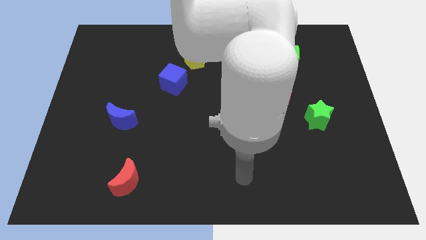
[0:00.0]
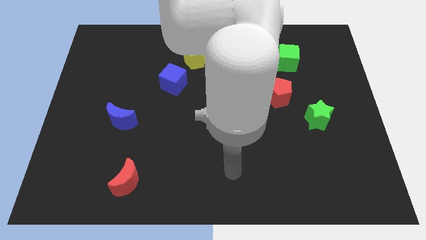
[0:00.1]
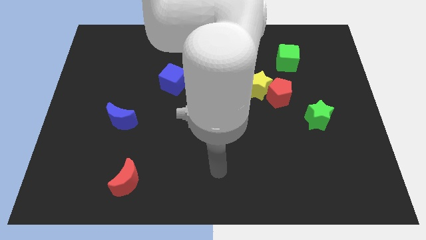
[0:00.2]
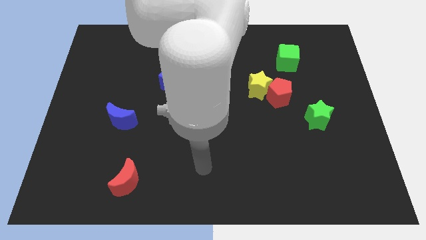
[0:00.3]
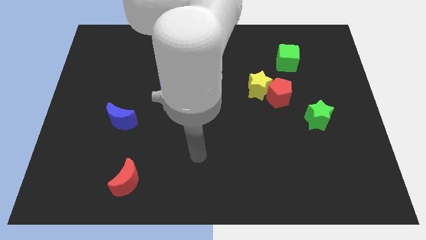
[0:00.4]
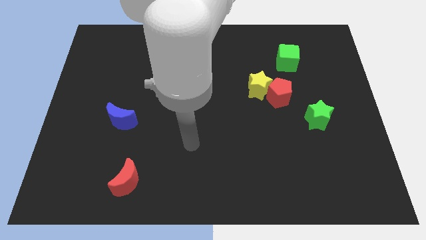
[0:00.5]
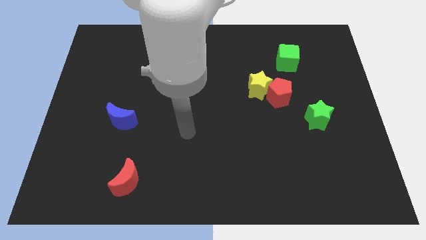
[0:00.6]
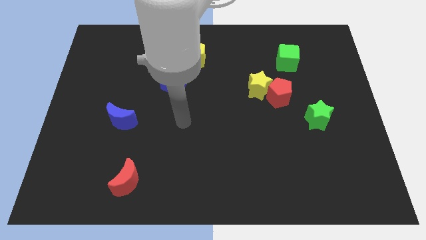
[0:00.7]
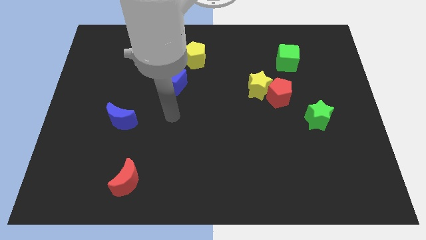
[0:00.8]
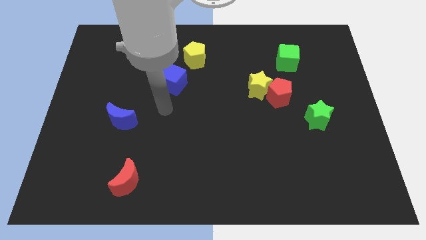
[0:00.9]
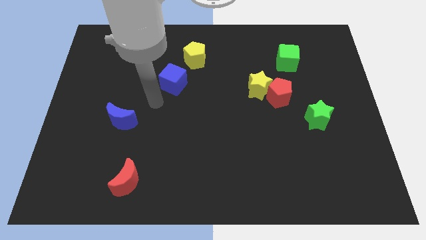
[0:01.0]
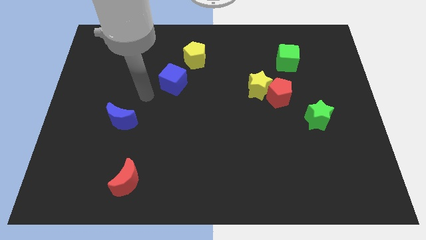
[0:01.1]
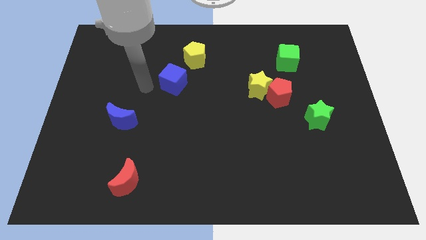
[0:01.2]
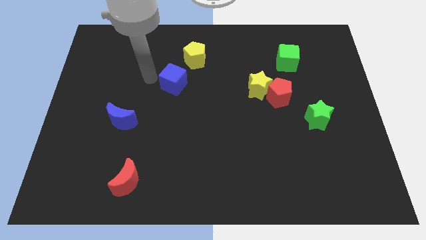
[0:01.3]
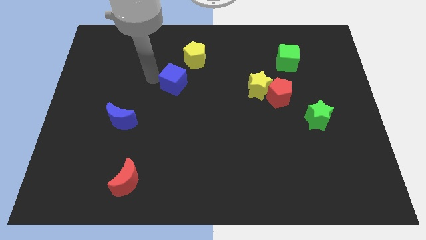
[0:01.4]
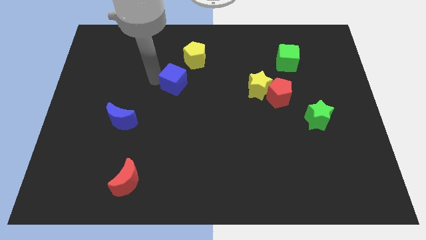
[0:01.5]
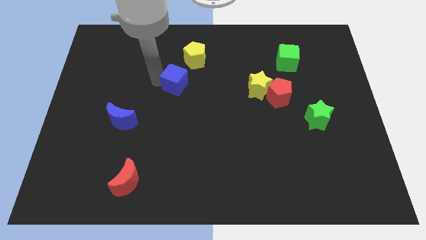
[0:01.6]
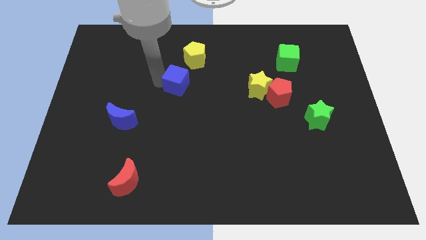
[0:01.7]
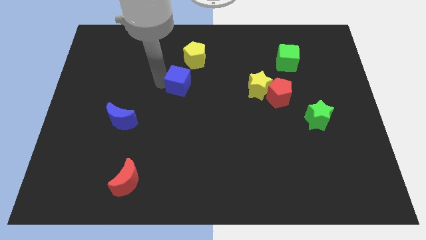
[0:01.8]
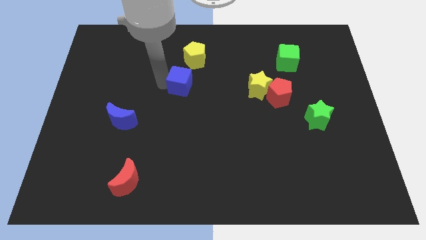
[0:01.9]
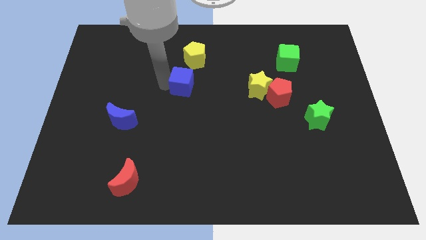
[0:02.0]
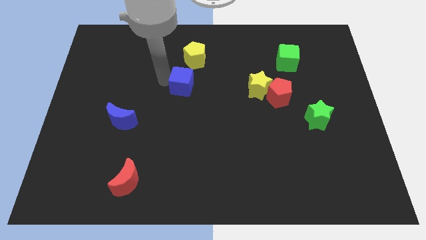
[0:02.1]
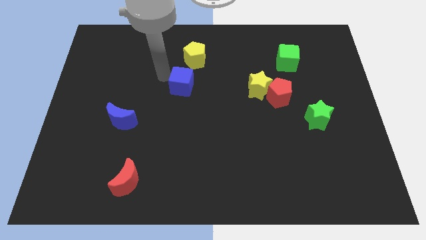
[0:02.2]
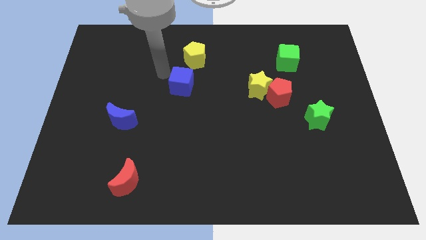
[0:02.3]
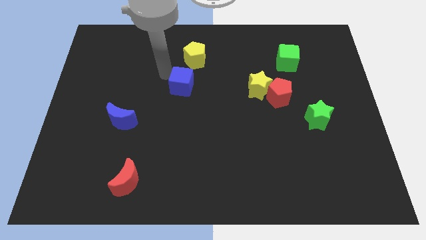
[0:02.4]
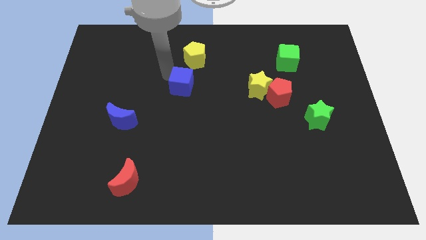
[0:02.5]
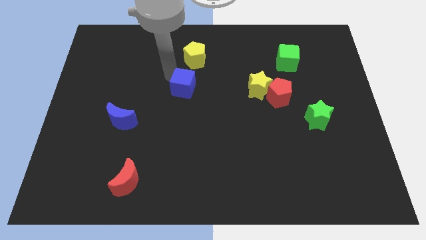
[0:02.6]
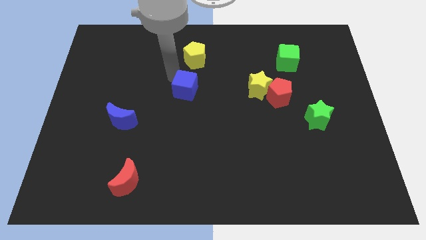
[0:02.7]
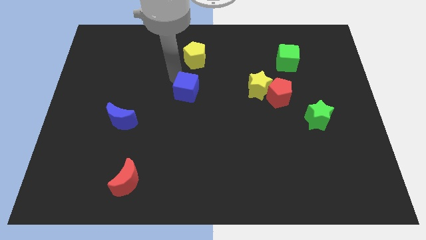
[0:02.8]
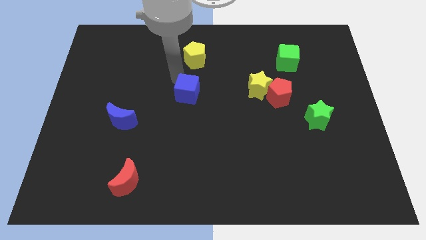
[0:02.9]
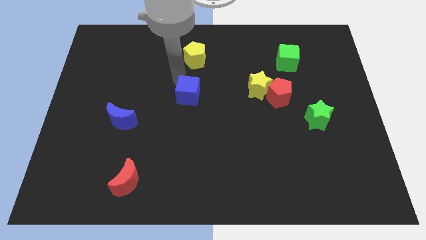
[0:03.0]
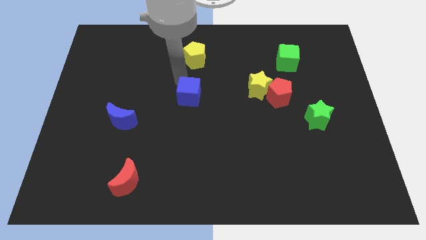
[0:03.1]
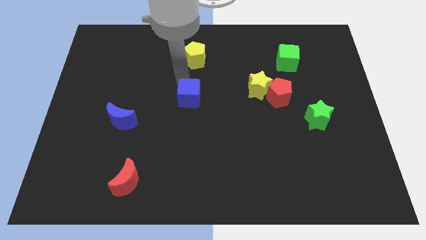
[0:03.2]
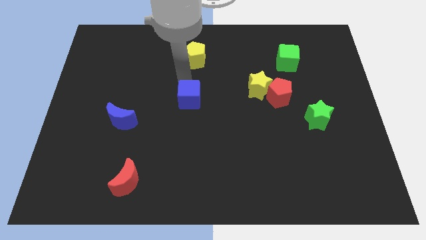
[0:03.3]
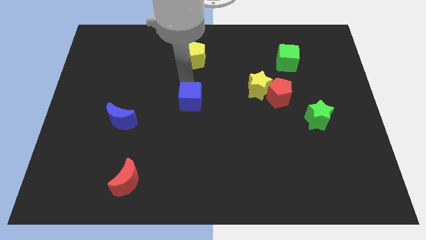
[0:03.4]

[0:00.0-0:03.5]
slightly move the blue cube downwards and then to the right

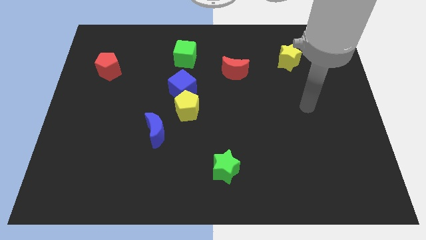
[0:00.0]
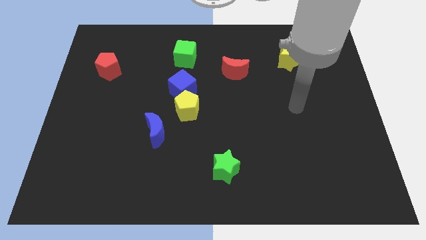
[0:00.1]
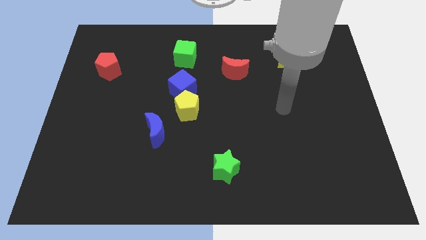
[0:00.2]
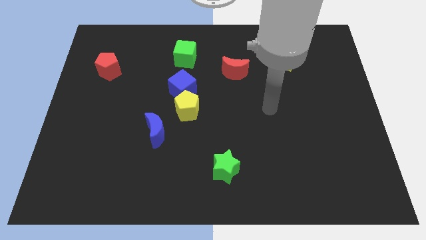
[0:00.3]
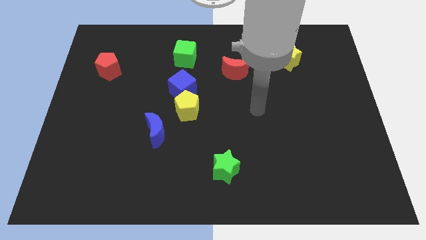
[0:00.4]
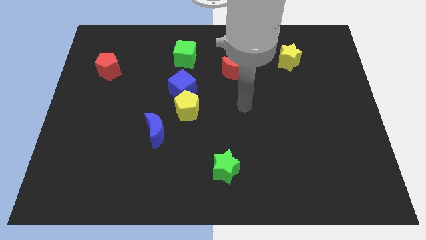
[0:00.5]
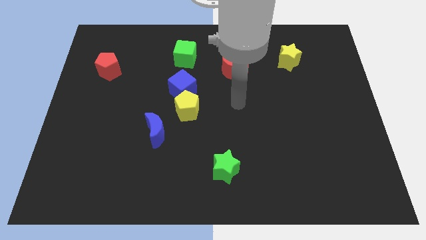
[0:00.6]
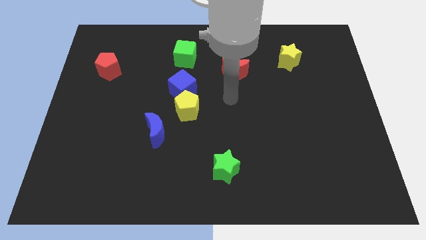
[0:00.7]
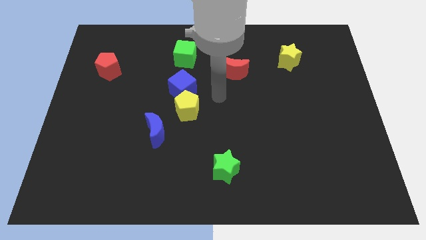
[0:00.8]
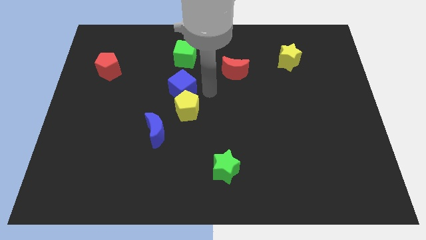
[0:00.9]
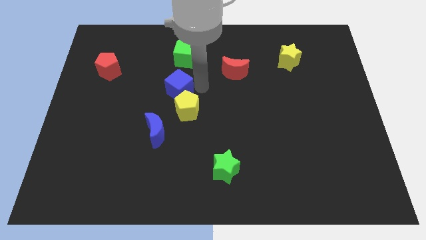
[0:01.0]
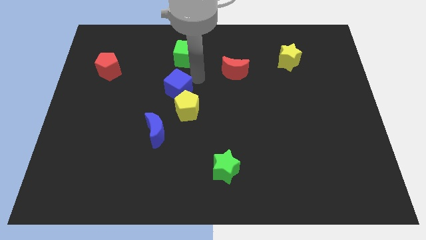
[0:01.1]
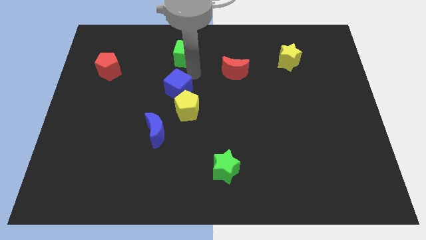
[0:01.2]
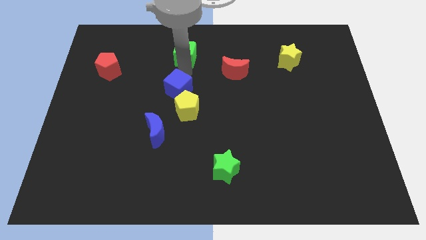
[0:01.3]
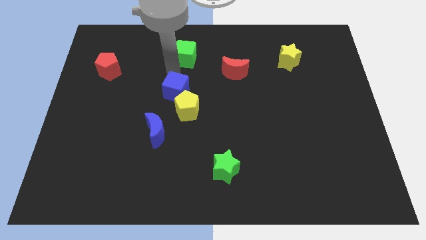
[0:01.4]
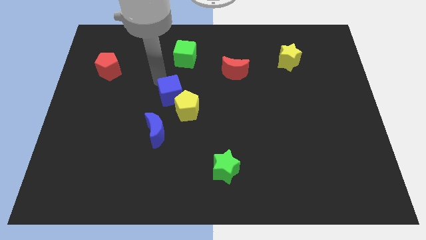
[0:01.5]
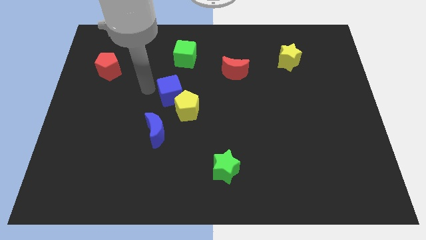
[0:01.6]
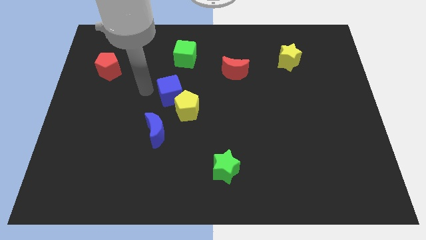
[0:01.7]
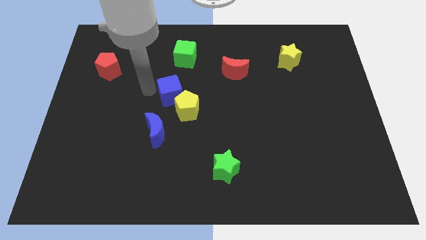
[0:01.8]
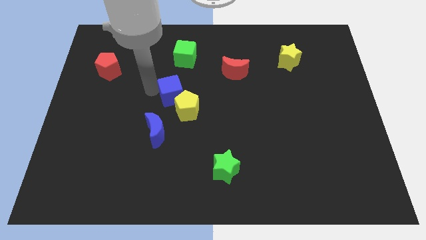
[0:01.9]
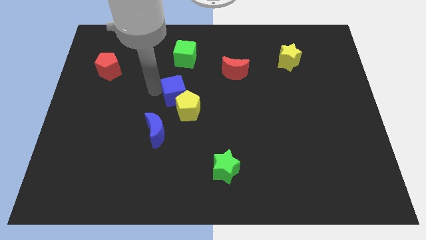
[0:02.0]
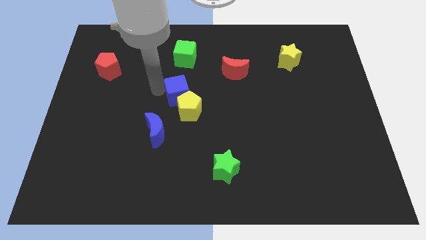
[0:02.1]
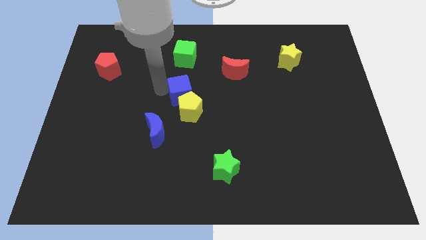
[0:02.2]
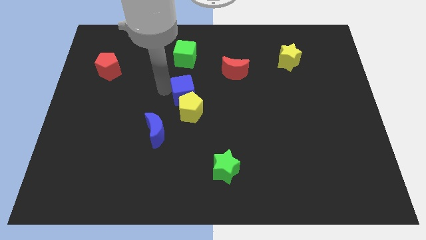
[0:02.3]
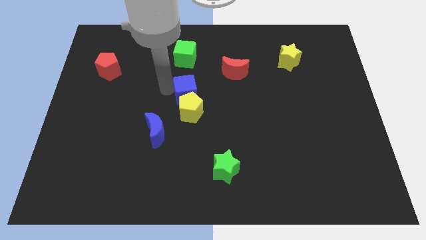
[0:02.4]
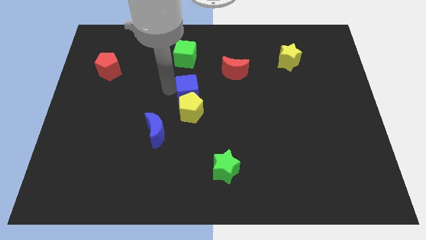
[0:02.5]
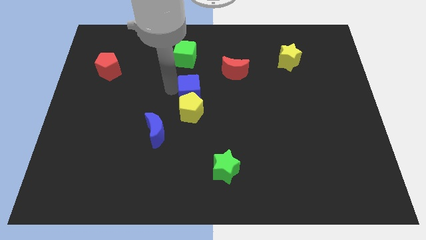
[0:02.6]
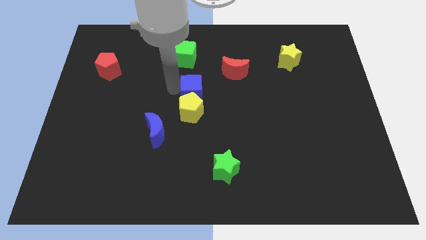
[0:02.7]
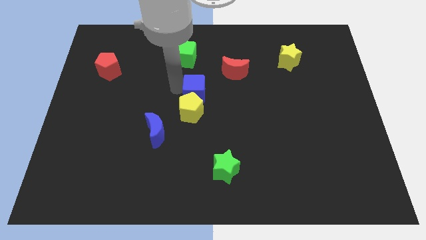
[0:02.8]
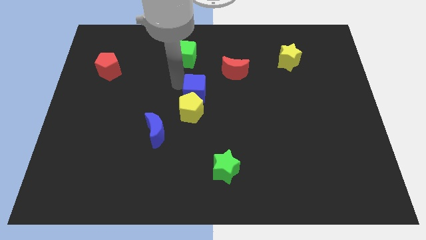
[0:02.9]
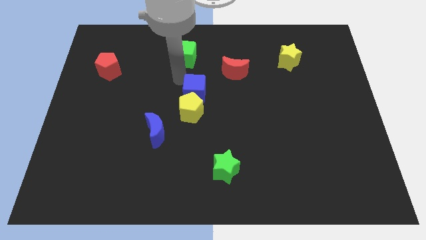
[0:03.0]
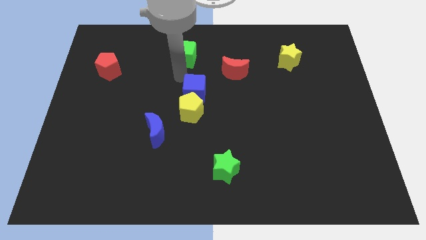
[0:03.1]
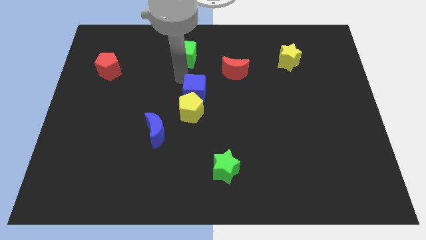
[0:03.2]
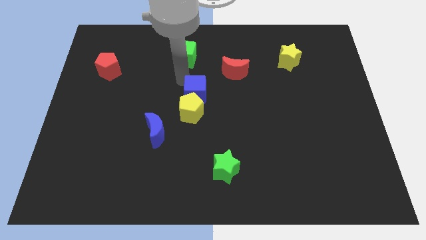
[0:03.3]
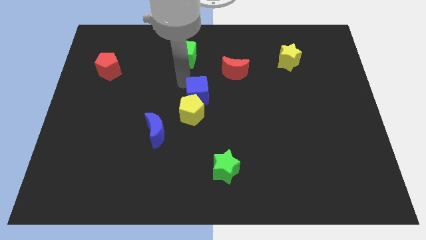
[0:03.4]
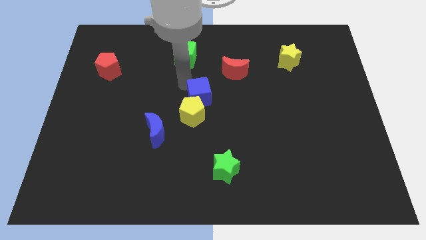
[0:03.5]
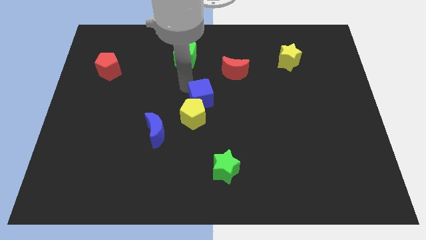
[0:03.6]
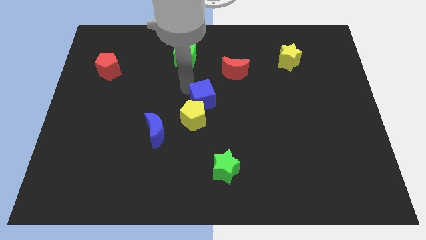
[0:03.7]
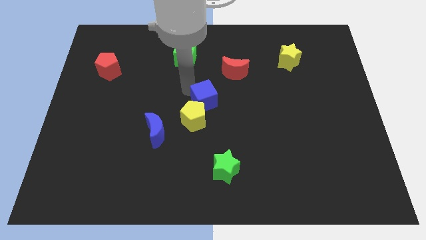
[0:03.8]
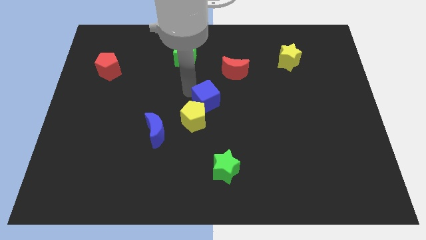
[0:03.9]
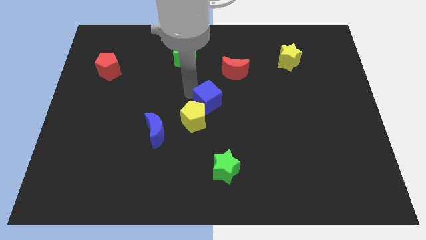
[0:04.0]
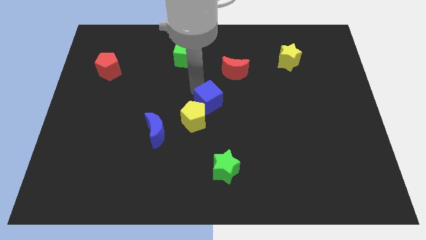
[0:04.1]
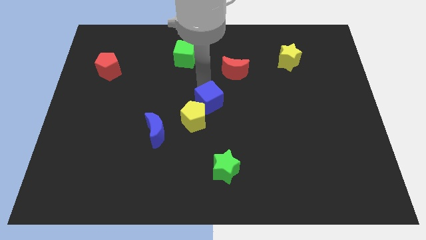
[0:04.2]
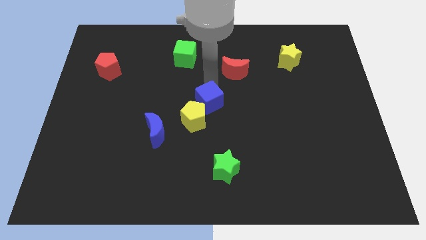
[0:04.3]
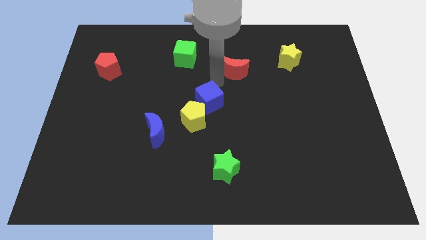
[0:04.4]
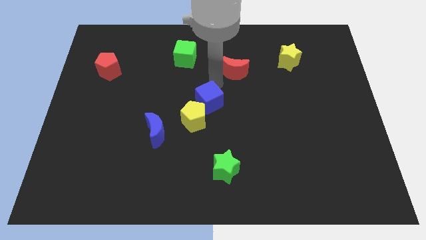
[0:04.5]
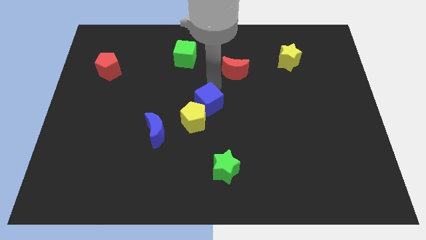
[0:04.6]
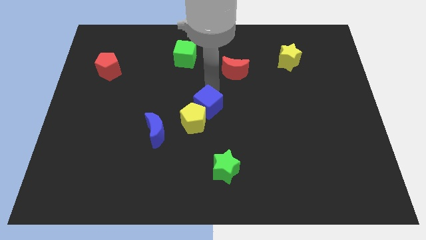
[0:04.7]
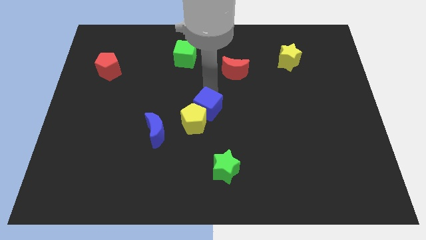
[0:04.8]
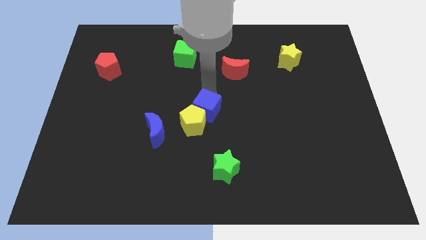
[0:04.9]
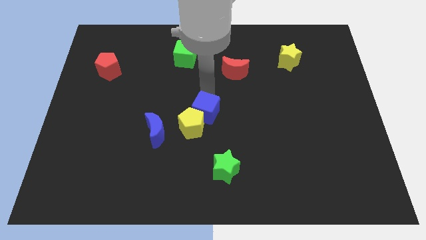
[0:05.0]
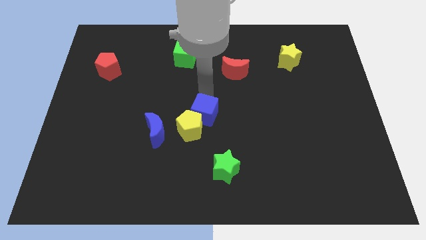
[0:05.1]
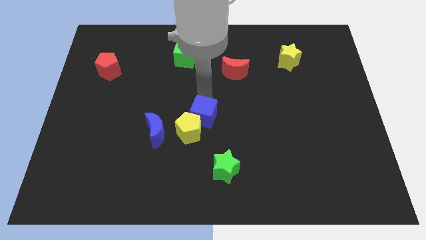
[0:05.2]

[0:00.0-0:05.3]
push the blue cube downwards somewhat
